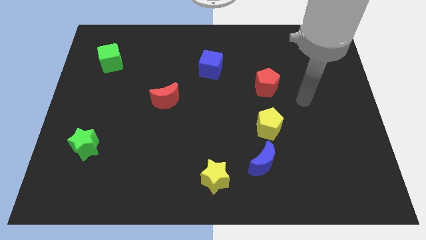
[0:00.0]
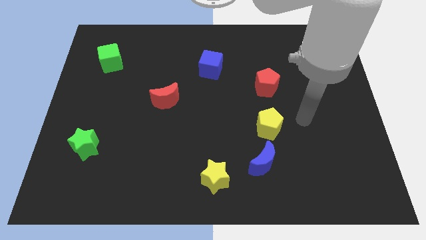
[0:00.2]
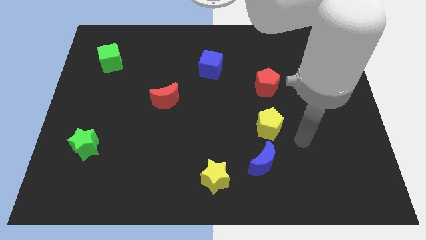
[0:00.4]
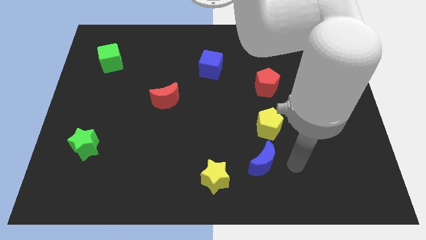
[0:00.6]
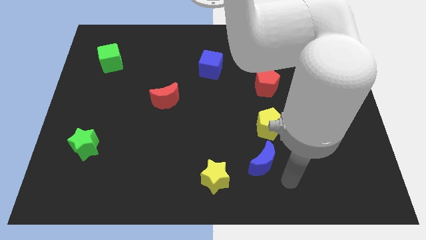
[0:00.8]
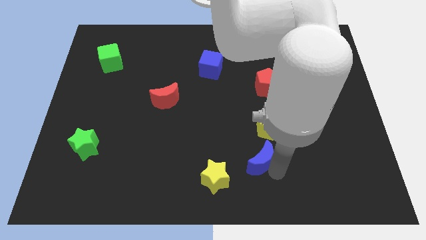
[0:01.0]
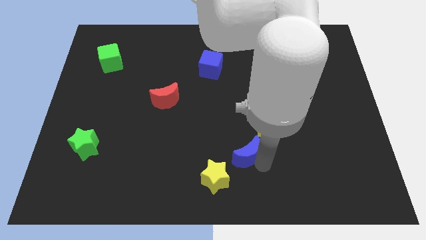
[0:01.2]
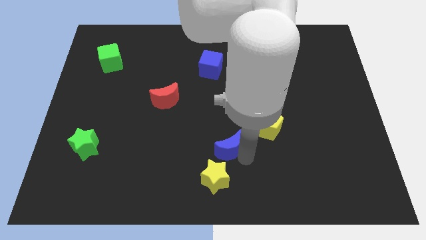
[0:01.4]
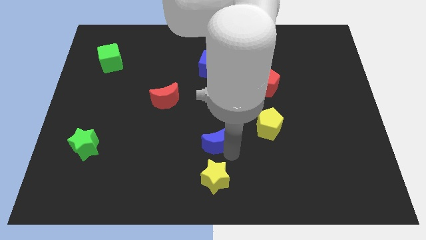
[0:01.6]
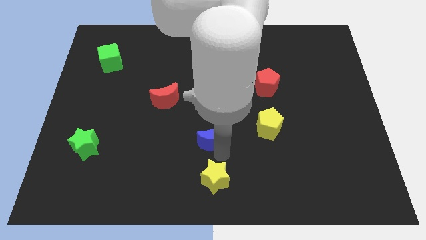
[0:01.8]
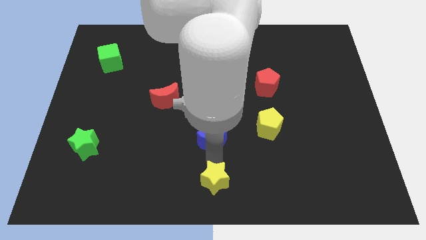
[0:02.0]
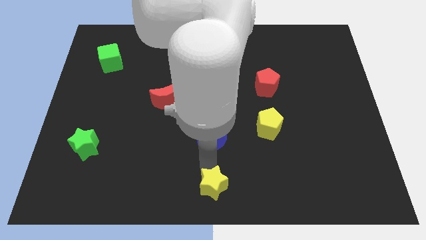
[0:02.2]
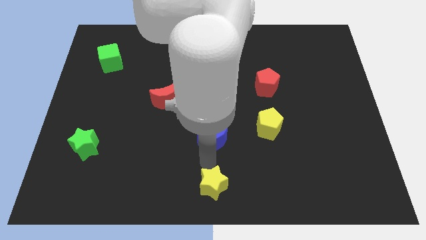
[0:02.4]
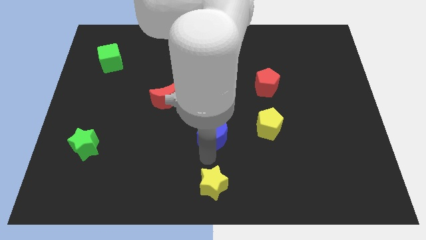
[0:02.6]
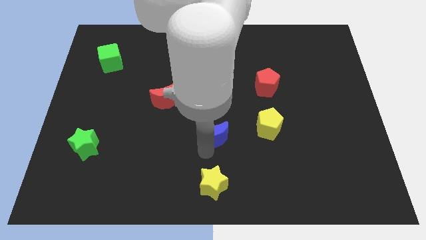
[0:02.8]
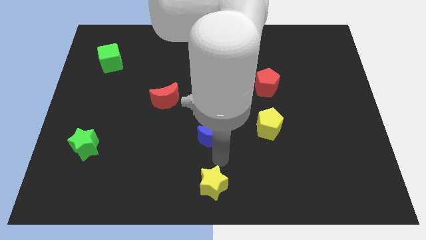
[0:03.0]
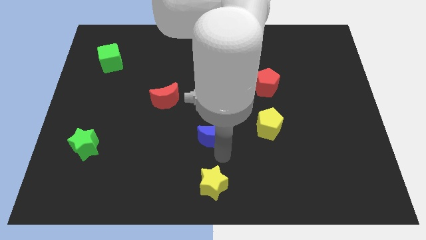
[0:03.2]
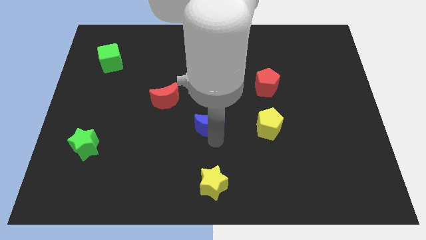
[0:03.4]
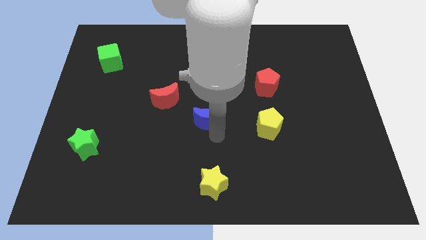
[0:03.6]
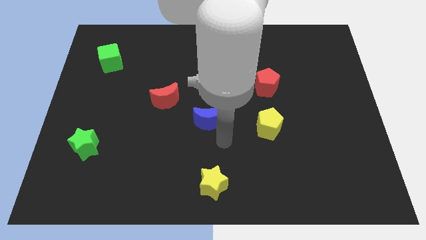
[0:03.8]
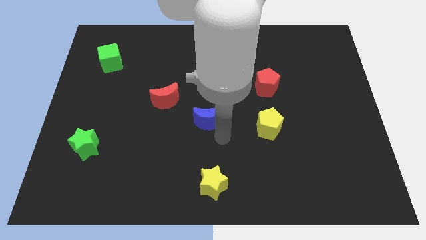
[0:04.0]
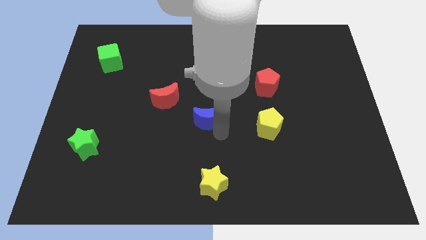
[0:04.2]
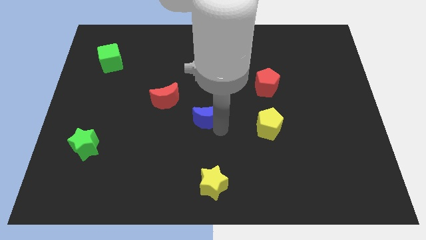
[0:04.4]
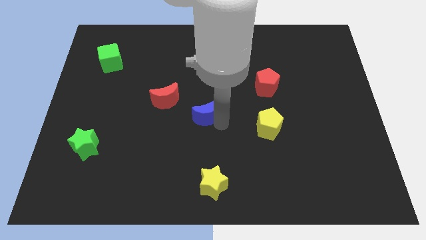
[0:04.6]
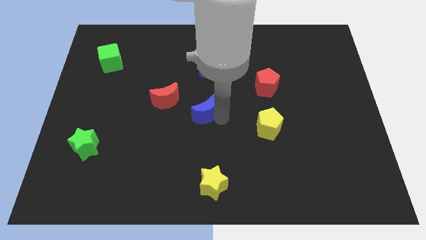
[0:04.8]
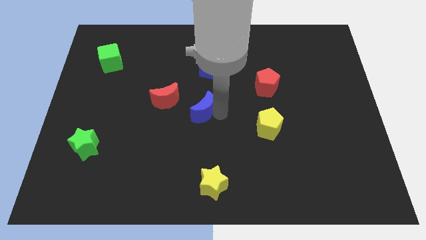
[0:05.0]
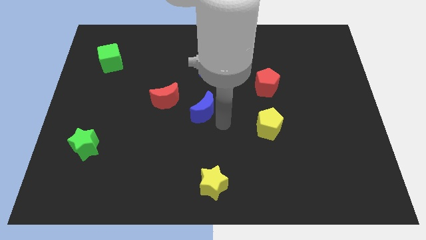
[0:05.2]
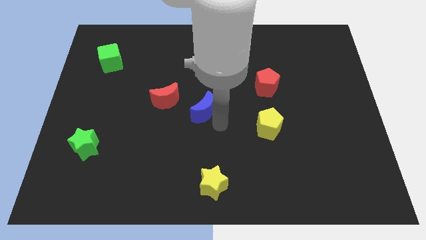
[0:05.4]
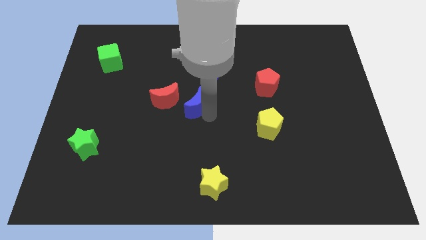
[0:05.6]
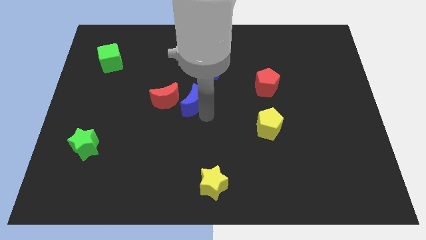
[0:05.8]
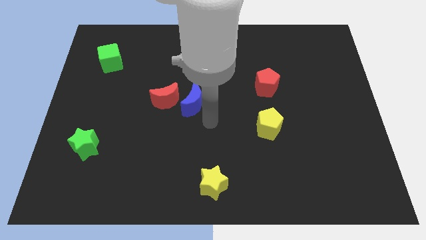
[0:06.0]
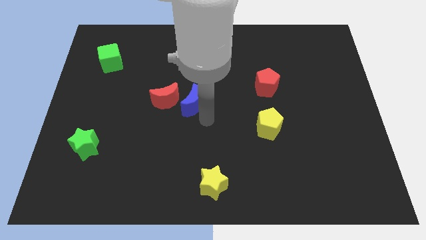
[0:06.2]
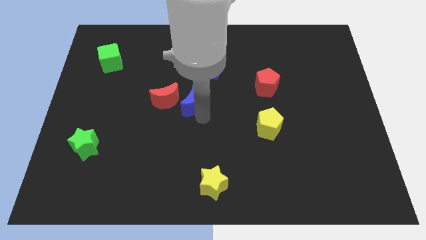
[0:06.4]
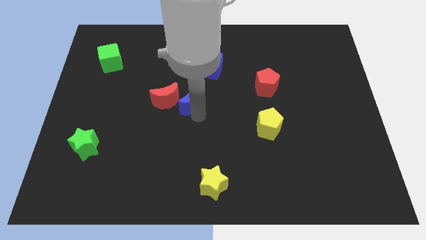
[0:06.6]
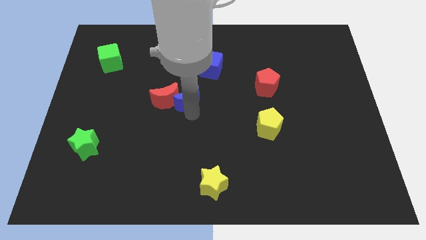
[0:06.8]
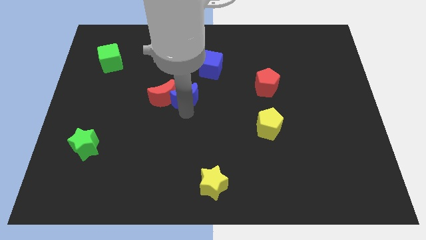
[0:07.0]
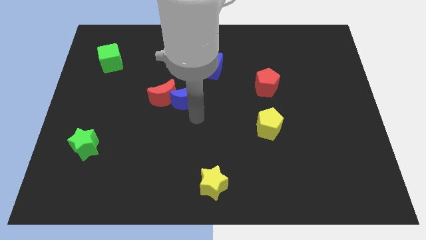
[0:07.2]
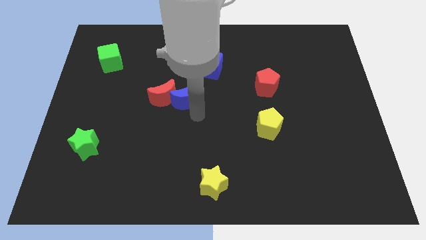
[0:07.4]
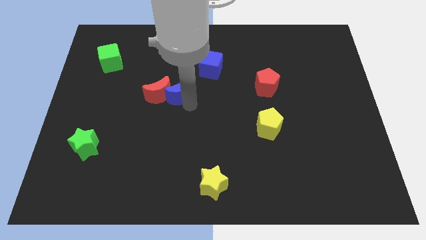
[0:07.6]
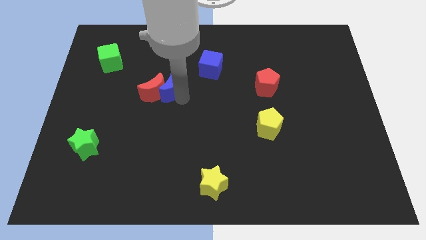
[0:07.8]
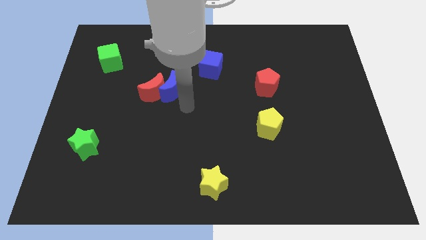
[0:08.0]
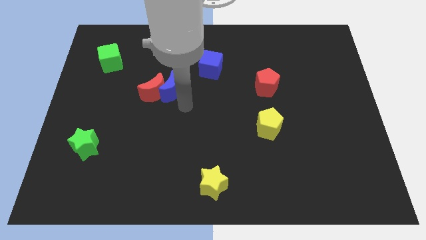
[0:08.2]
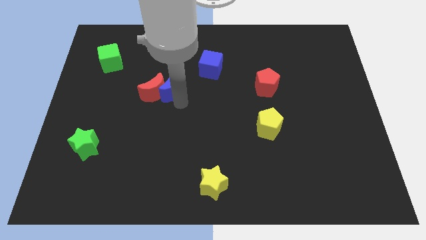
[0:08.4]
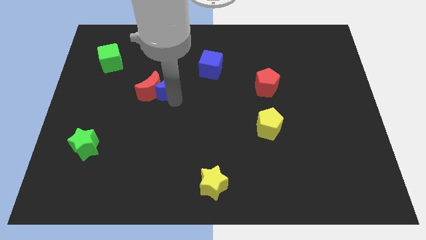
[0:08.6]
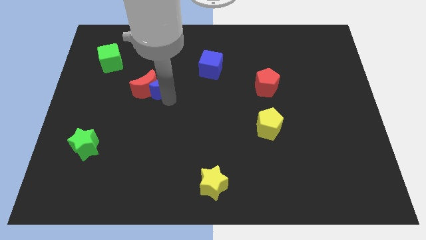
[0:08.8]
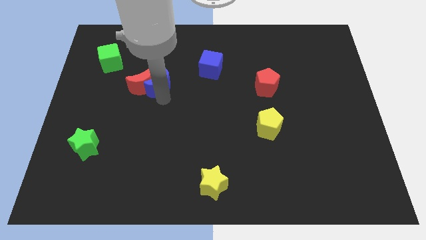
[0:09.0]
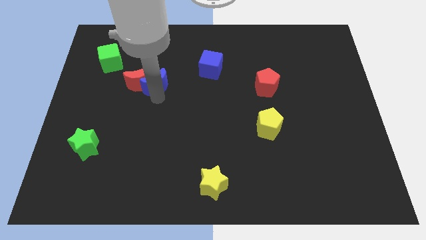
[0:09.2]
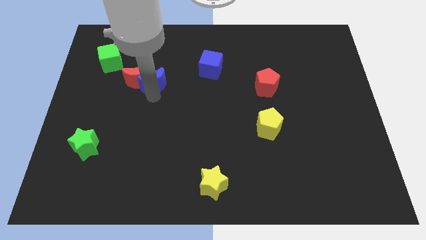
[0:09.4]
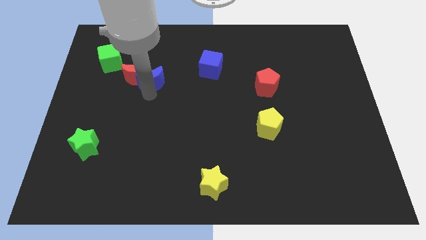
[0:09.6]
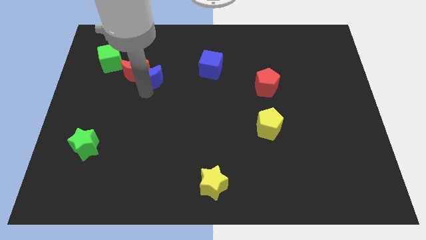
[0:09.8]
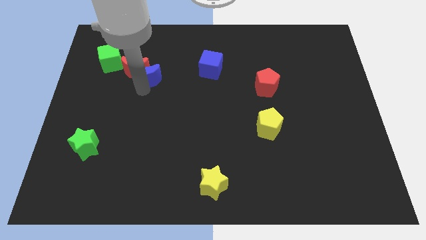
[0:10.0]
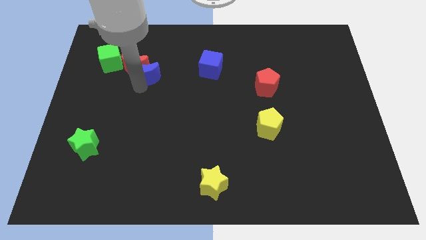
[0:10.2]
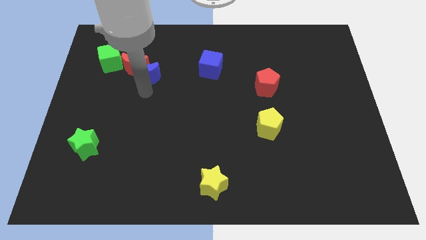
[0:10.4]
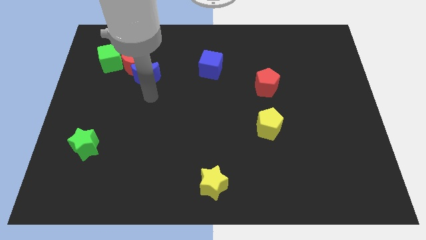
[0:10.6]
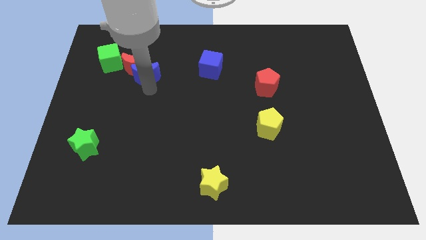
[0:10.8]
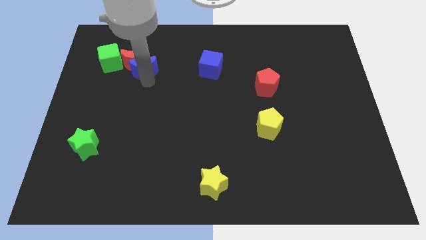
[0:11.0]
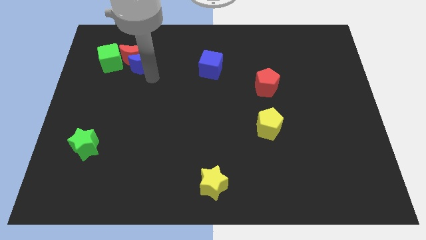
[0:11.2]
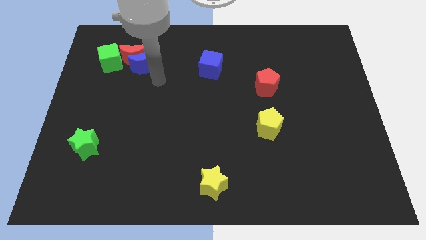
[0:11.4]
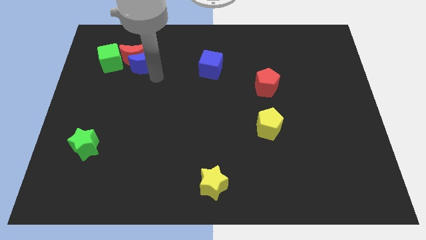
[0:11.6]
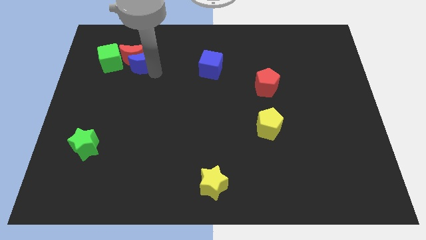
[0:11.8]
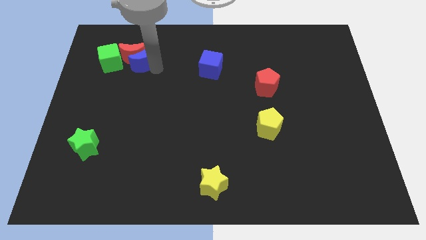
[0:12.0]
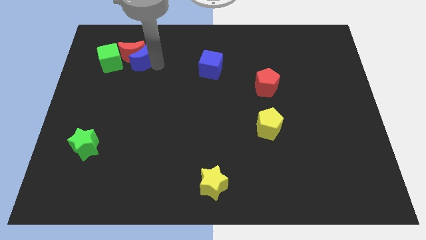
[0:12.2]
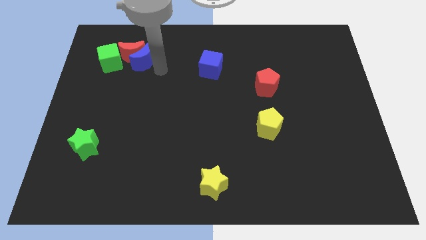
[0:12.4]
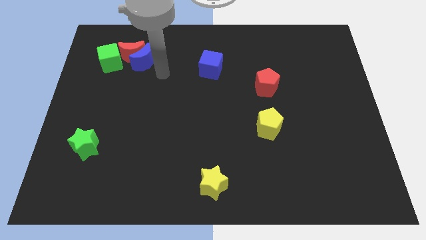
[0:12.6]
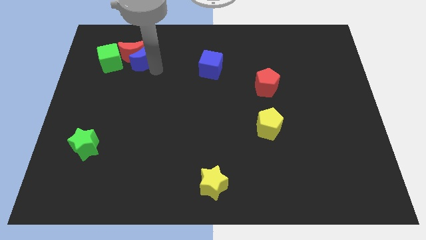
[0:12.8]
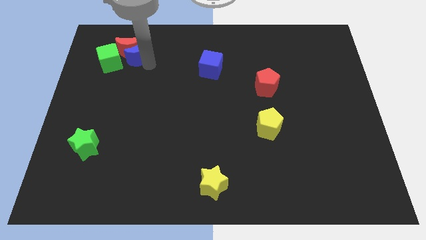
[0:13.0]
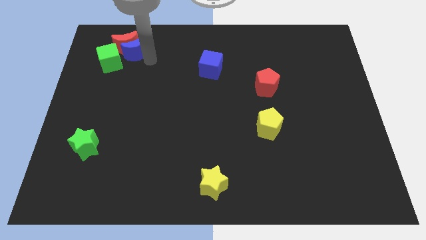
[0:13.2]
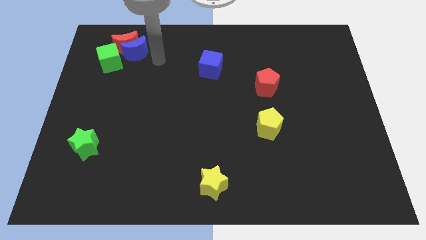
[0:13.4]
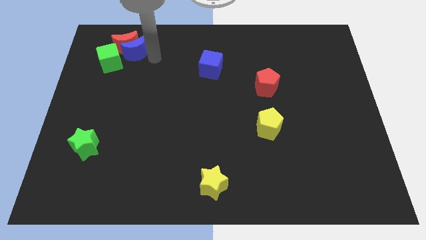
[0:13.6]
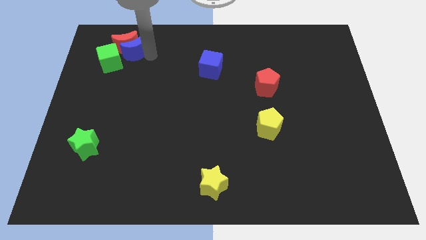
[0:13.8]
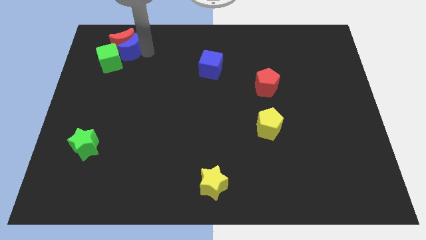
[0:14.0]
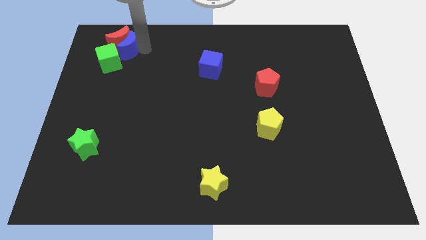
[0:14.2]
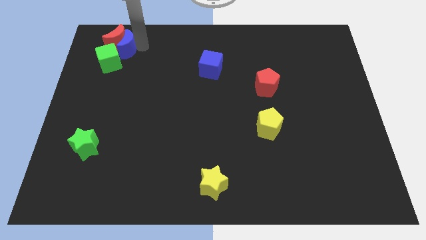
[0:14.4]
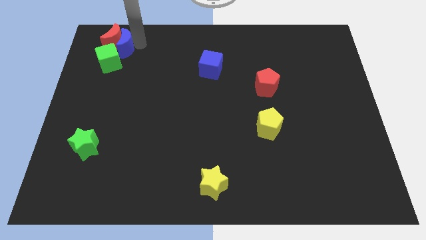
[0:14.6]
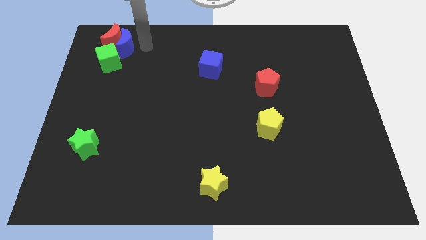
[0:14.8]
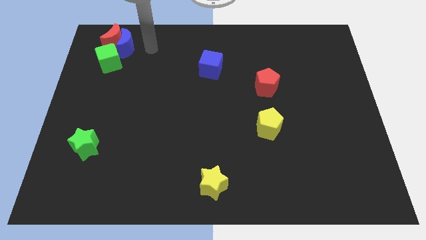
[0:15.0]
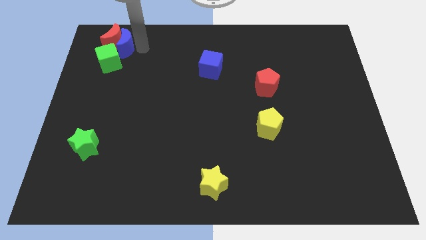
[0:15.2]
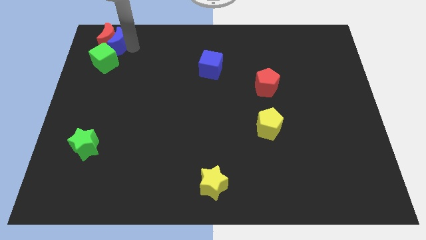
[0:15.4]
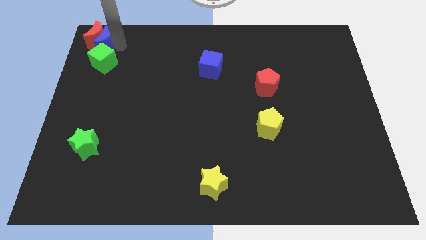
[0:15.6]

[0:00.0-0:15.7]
put the blue moon to the top left
